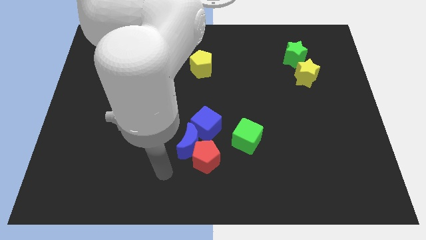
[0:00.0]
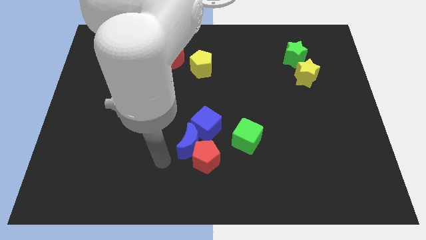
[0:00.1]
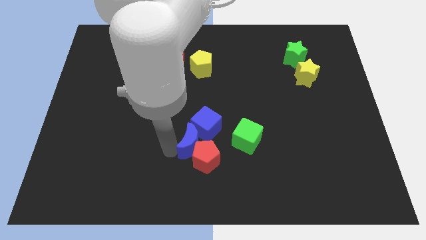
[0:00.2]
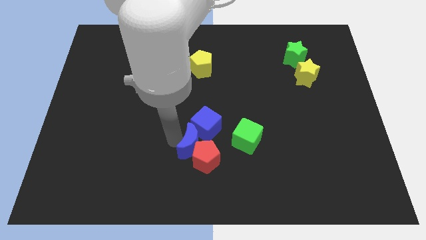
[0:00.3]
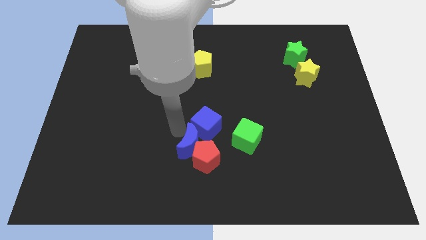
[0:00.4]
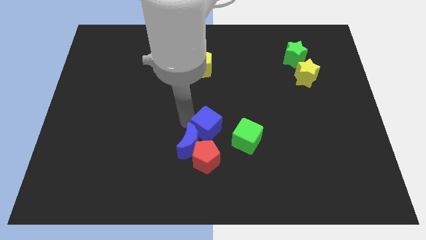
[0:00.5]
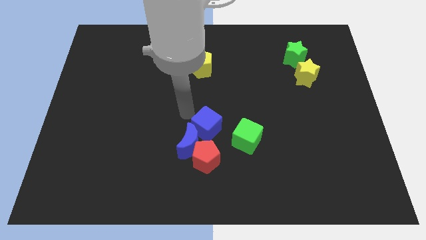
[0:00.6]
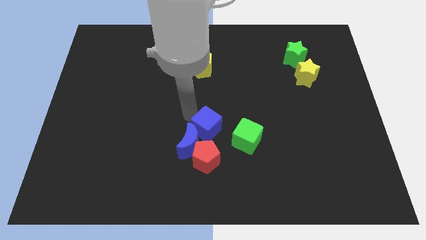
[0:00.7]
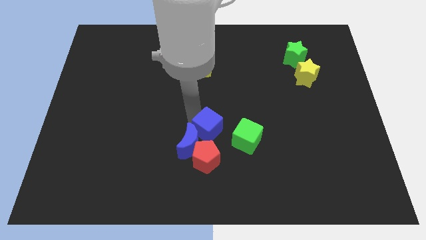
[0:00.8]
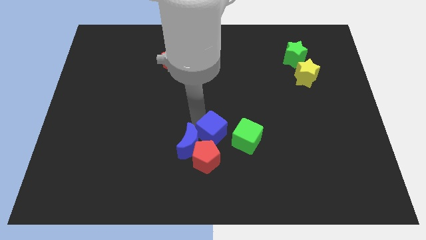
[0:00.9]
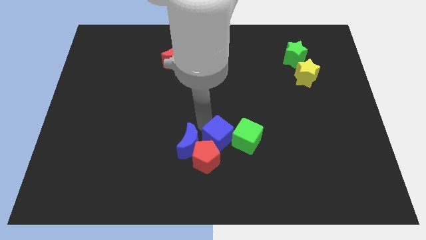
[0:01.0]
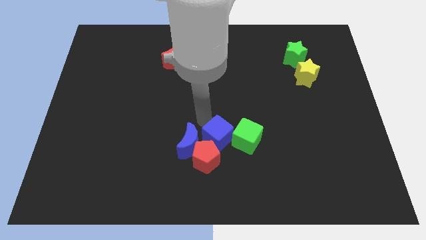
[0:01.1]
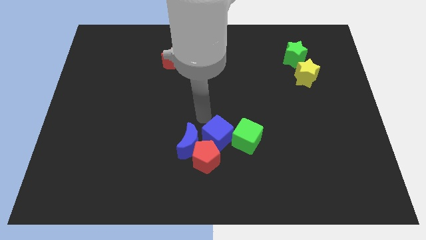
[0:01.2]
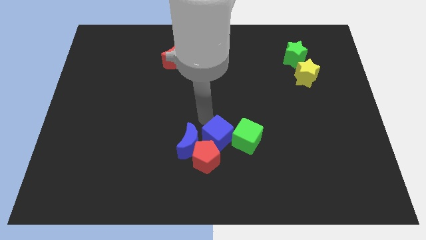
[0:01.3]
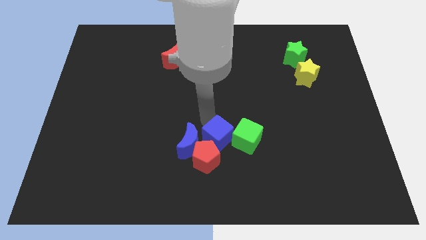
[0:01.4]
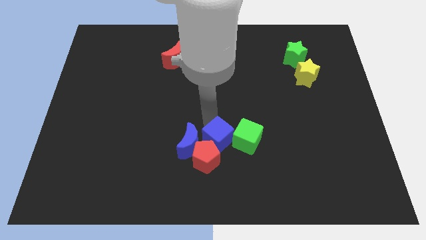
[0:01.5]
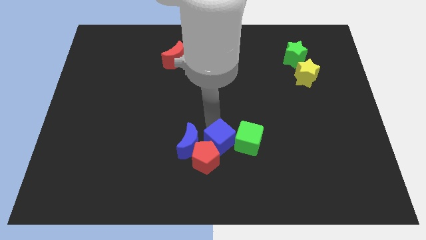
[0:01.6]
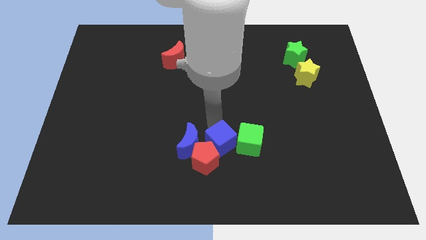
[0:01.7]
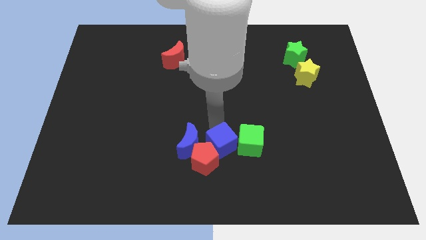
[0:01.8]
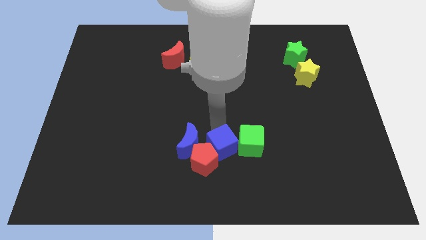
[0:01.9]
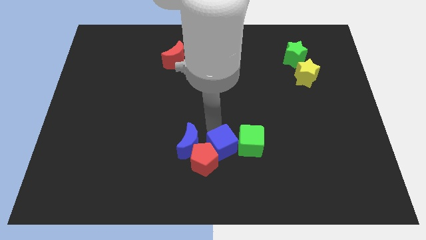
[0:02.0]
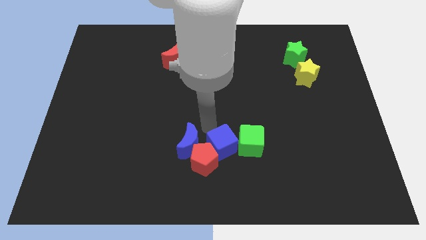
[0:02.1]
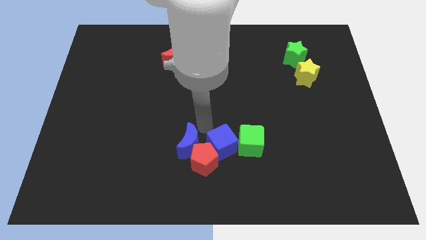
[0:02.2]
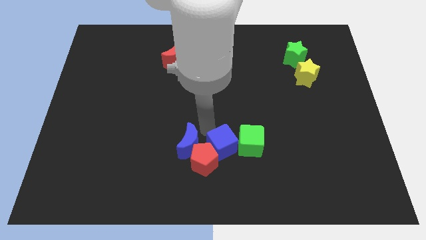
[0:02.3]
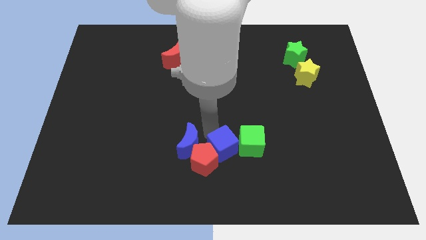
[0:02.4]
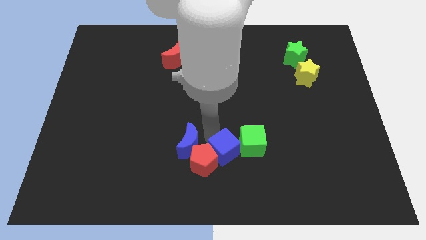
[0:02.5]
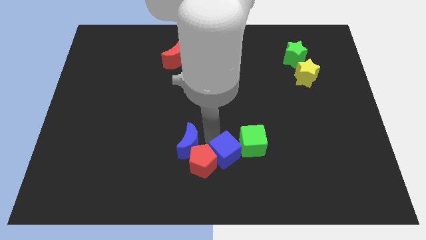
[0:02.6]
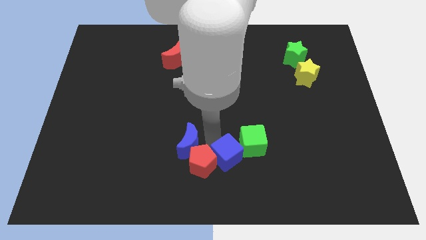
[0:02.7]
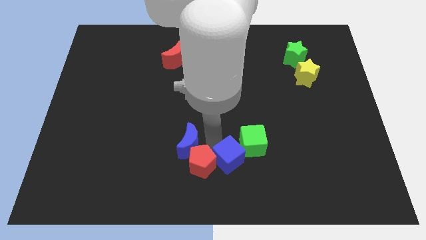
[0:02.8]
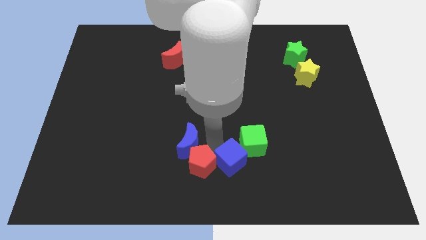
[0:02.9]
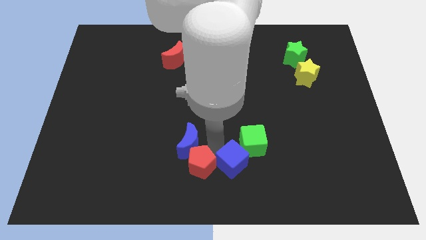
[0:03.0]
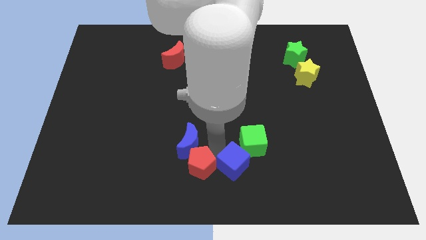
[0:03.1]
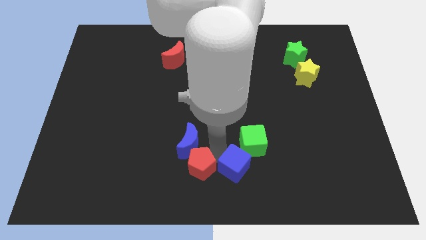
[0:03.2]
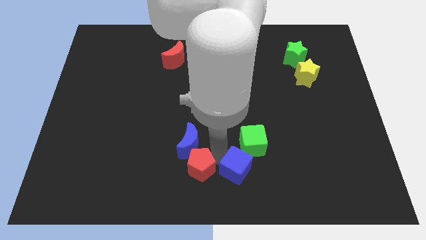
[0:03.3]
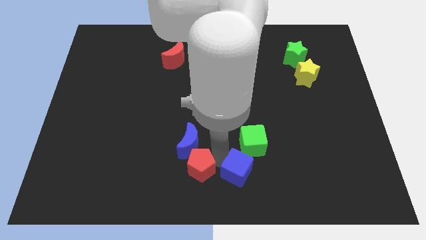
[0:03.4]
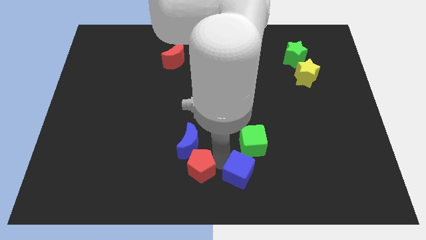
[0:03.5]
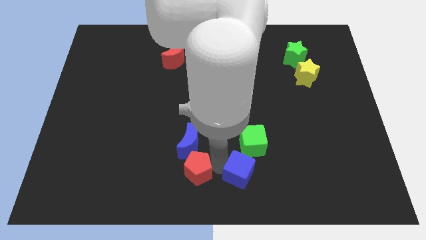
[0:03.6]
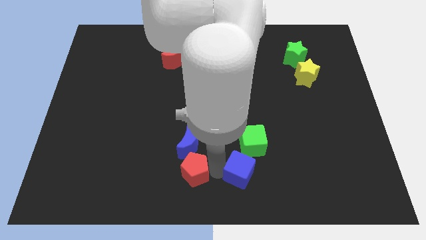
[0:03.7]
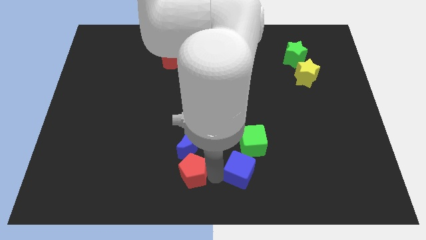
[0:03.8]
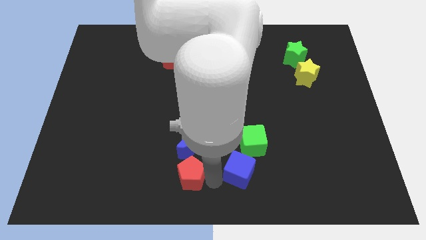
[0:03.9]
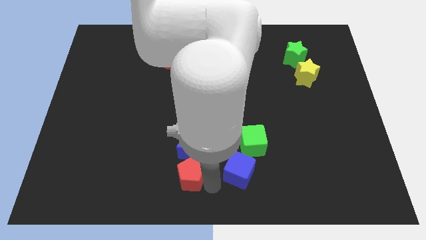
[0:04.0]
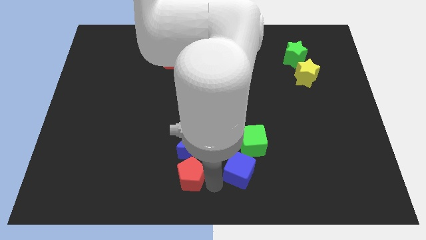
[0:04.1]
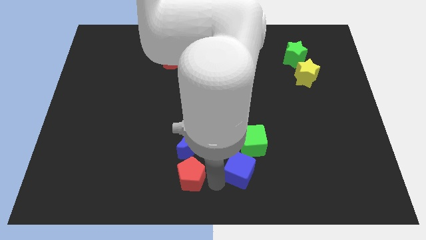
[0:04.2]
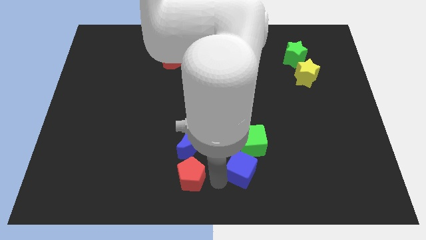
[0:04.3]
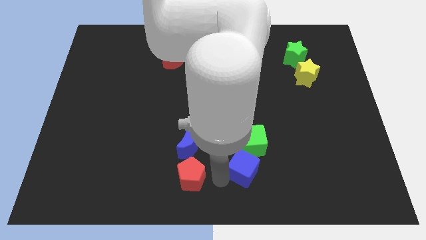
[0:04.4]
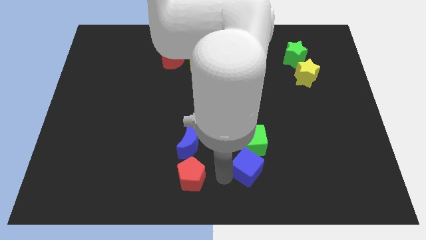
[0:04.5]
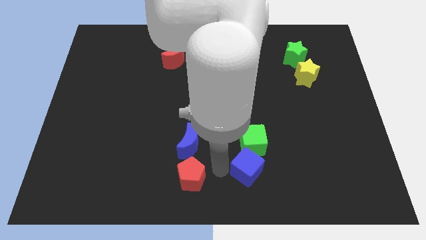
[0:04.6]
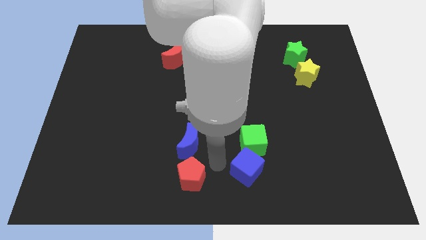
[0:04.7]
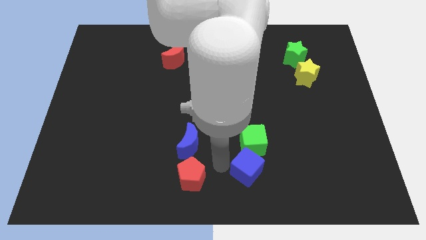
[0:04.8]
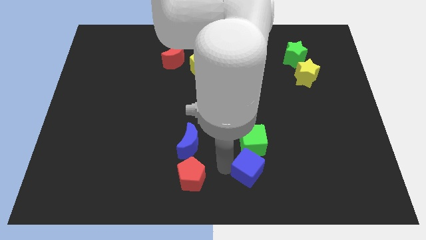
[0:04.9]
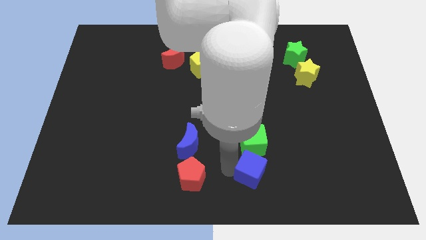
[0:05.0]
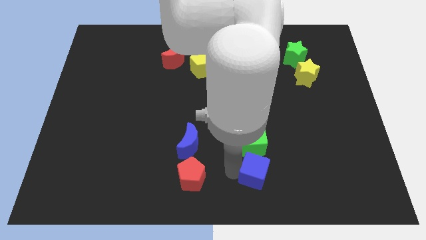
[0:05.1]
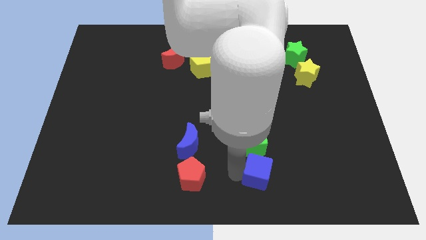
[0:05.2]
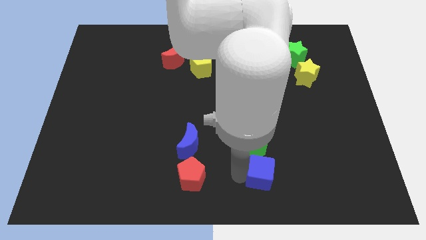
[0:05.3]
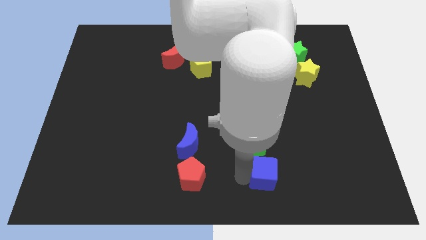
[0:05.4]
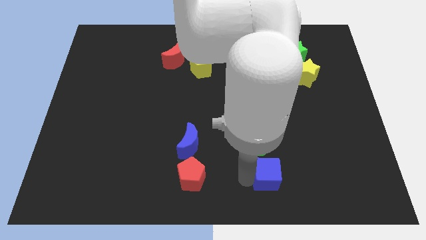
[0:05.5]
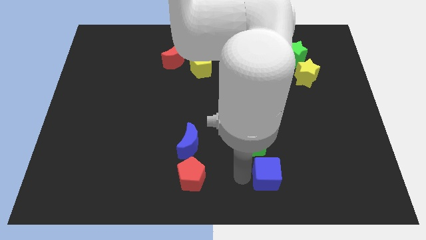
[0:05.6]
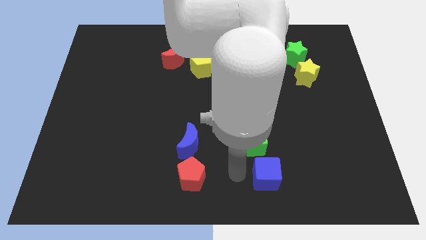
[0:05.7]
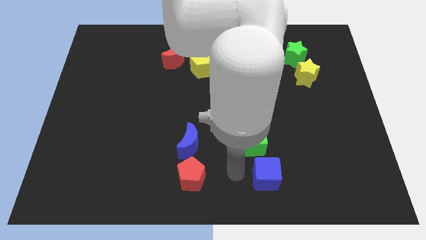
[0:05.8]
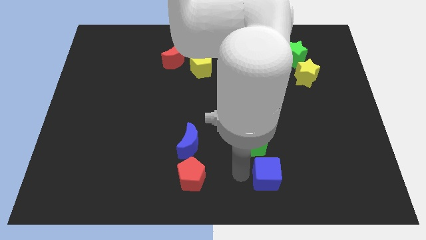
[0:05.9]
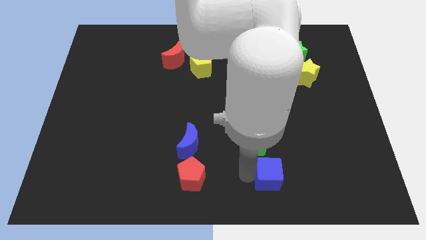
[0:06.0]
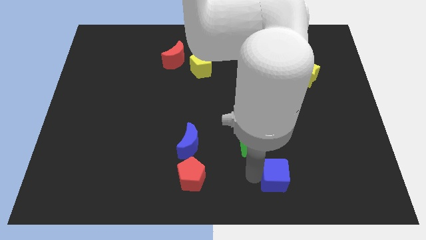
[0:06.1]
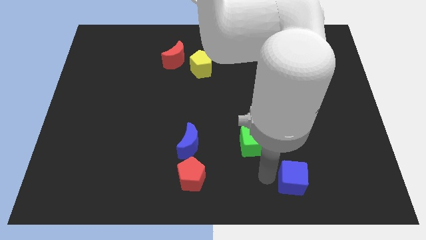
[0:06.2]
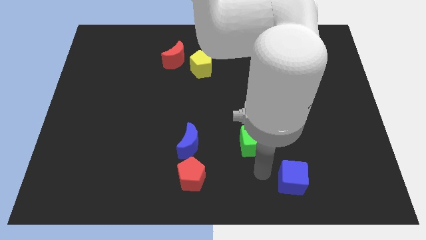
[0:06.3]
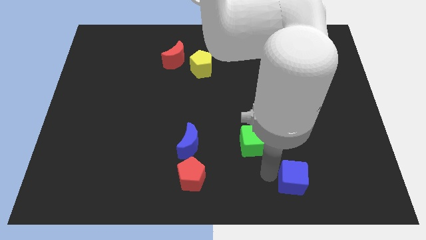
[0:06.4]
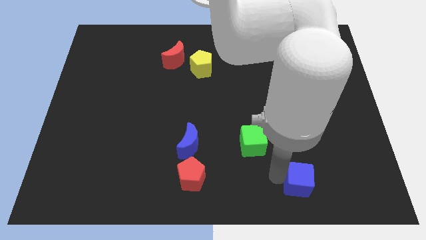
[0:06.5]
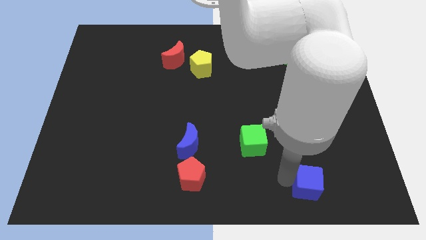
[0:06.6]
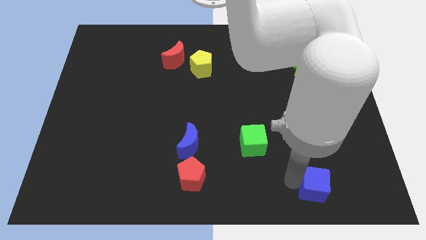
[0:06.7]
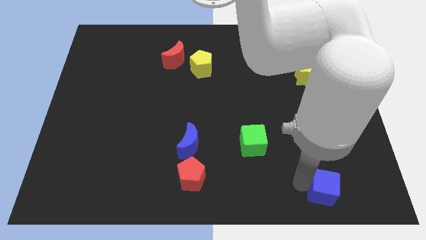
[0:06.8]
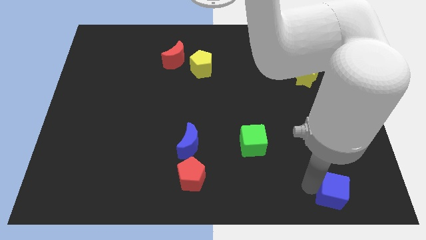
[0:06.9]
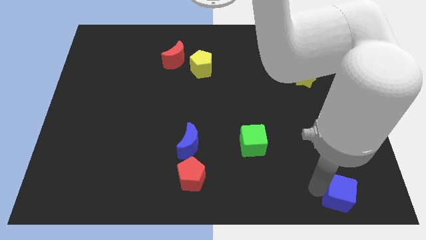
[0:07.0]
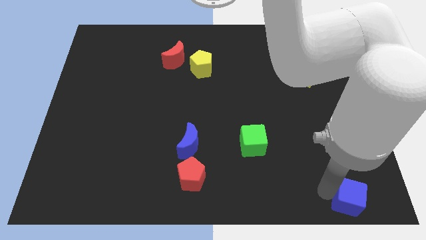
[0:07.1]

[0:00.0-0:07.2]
put the blue cube to the bottom right of the board

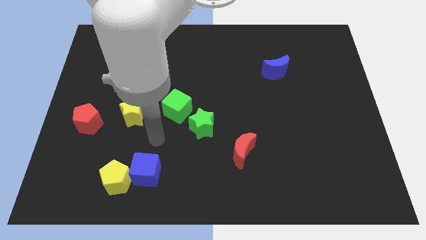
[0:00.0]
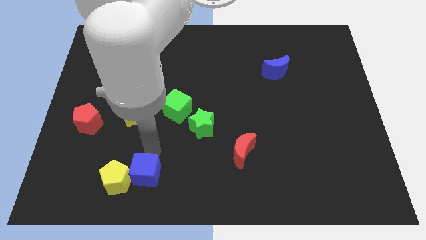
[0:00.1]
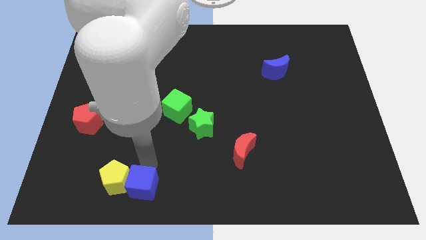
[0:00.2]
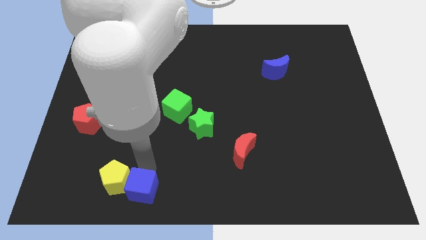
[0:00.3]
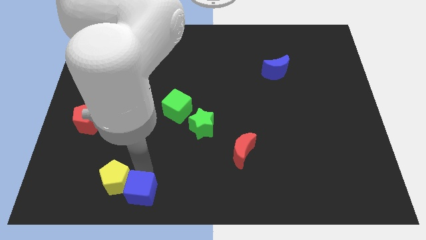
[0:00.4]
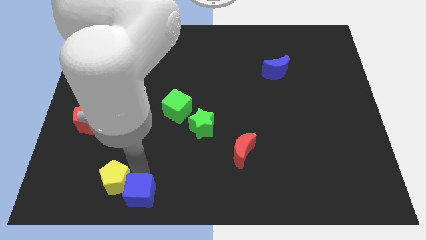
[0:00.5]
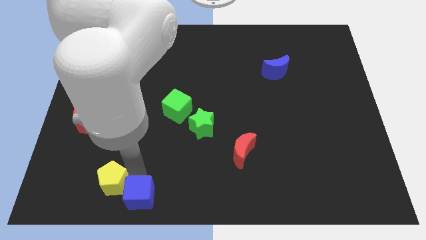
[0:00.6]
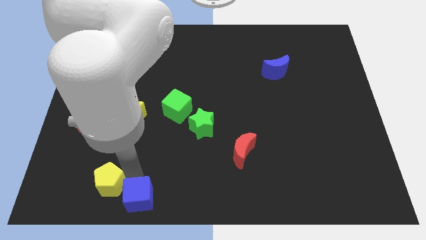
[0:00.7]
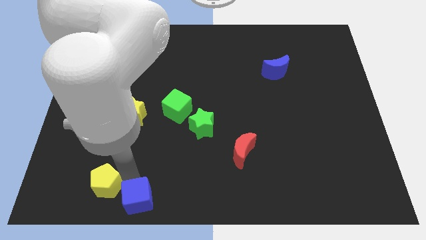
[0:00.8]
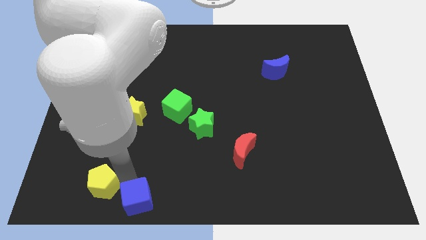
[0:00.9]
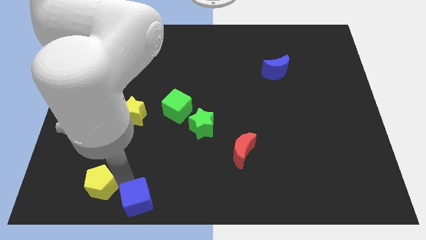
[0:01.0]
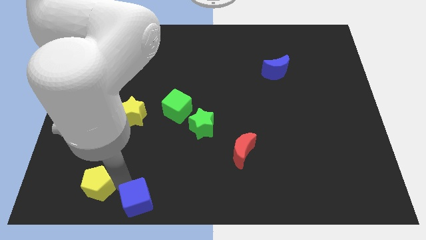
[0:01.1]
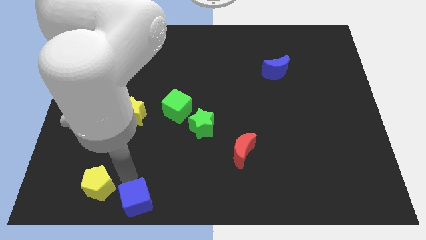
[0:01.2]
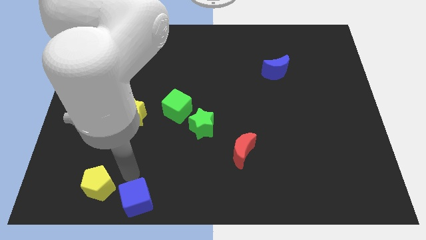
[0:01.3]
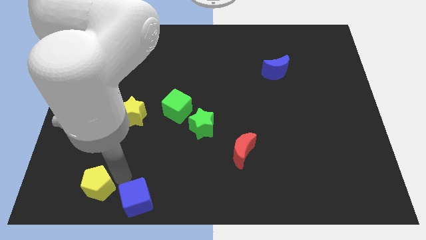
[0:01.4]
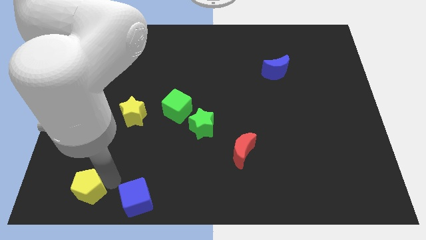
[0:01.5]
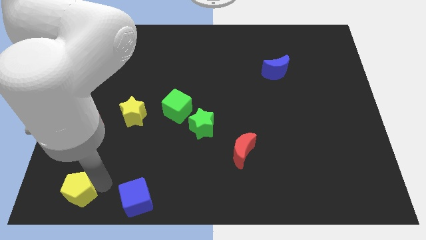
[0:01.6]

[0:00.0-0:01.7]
put the yellow pentagon to the bottom left of the board
